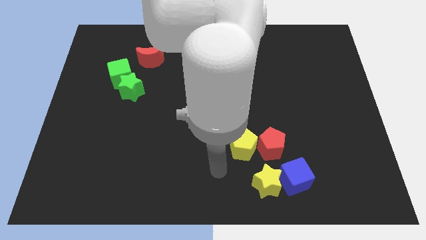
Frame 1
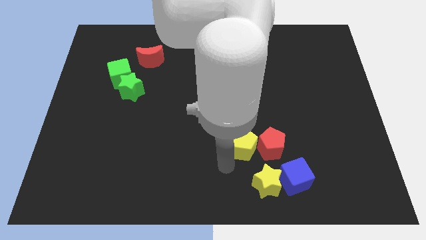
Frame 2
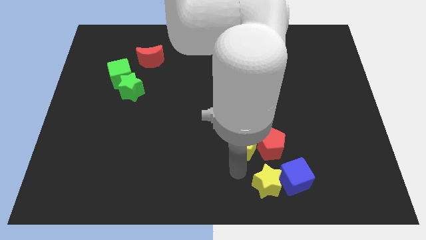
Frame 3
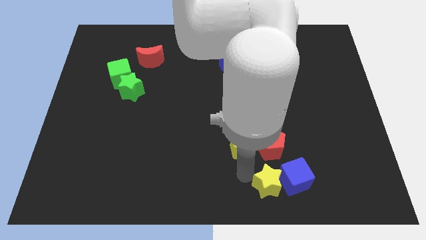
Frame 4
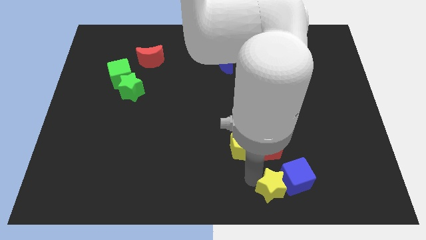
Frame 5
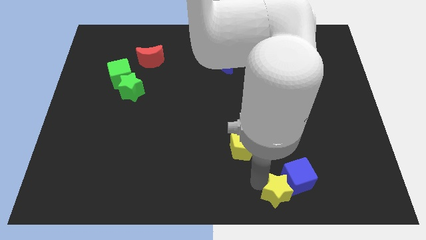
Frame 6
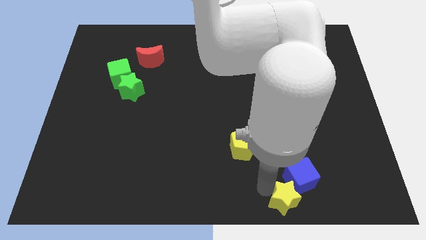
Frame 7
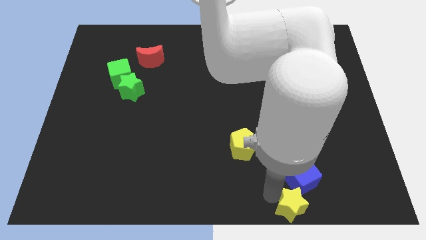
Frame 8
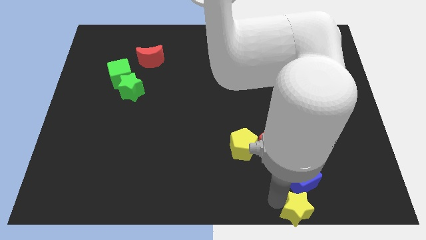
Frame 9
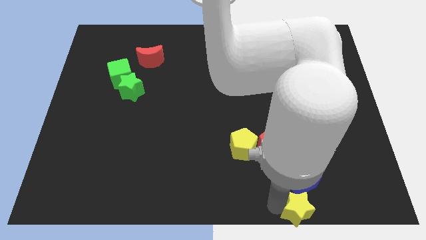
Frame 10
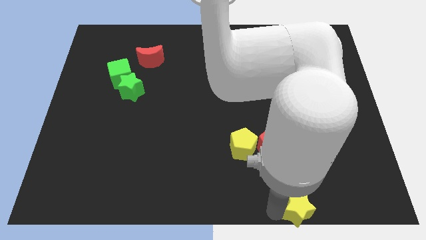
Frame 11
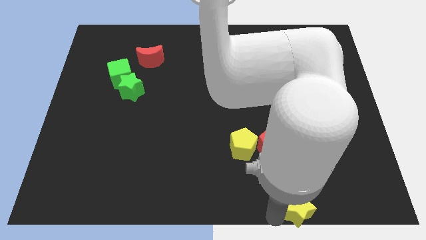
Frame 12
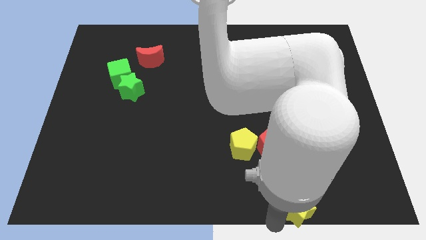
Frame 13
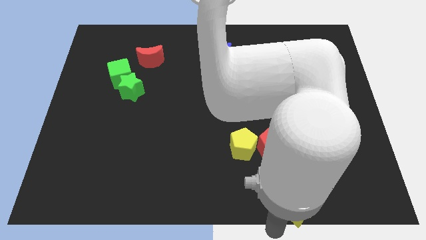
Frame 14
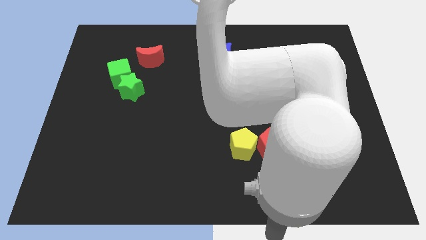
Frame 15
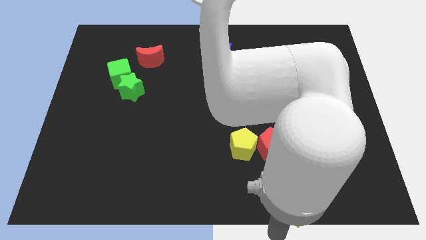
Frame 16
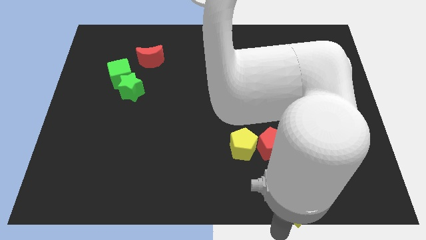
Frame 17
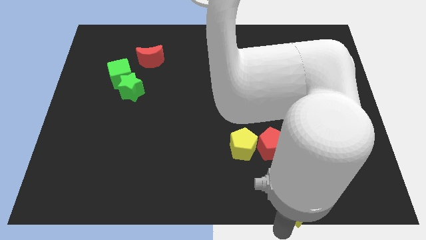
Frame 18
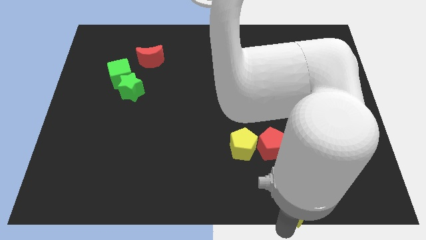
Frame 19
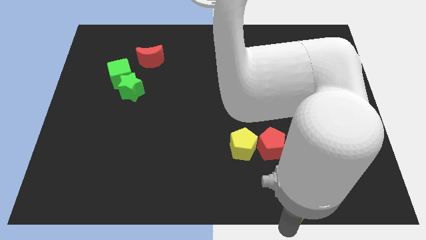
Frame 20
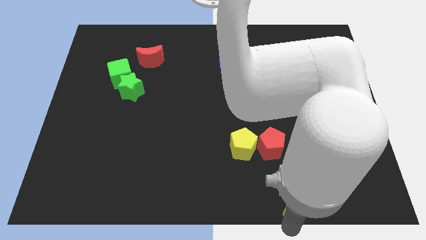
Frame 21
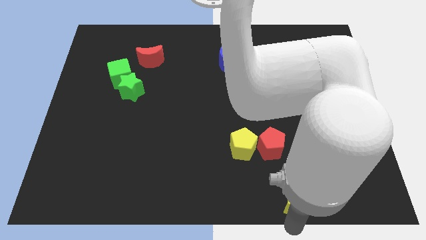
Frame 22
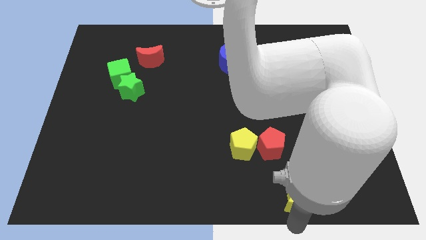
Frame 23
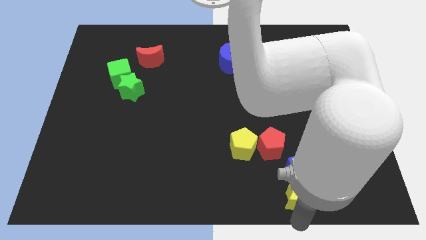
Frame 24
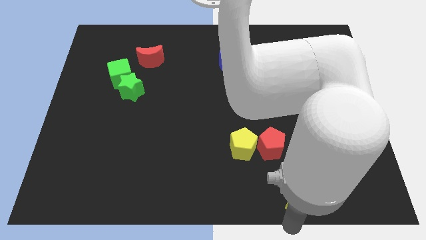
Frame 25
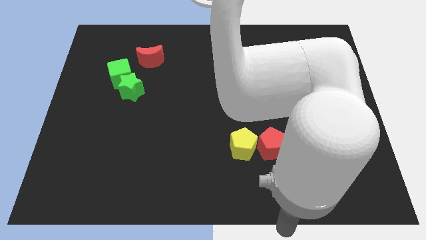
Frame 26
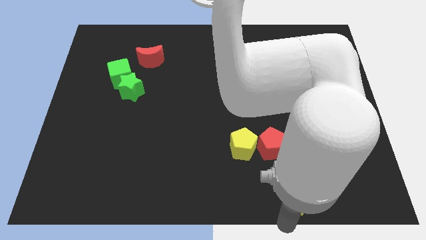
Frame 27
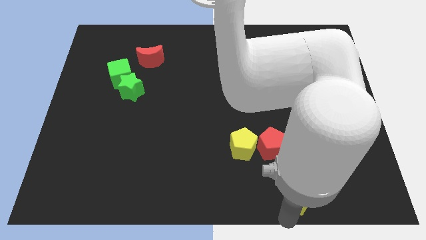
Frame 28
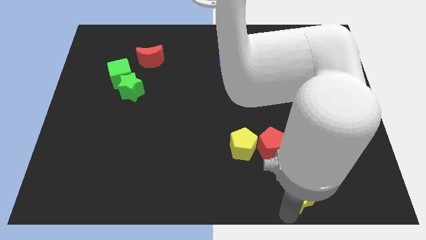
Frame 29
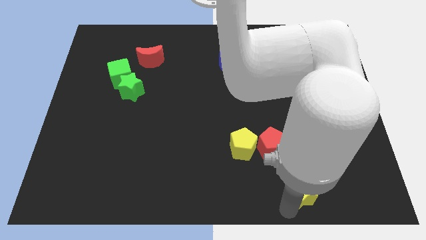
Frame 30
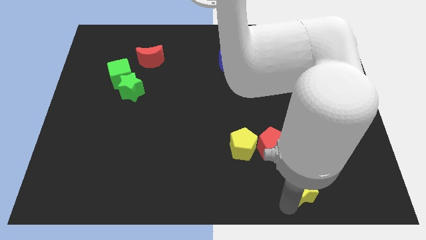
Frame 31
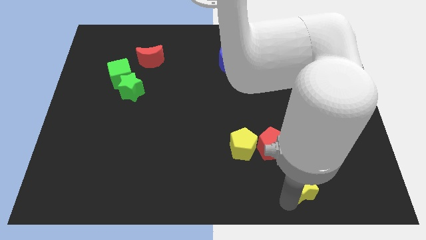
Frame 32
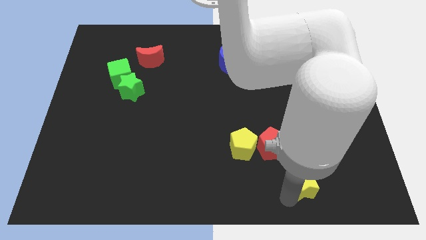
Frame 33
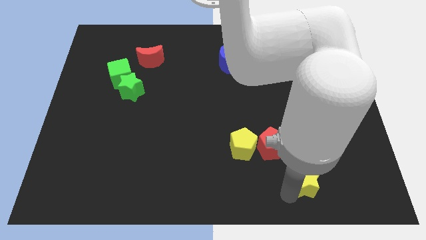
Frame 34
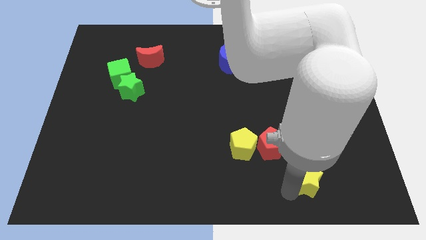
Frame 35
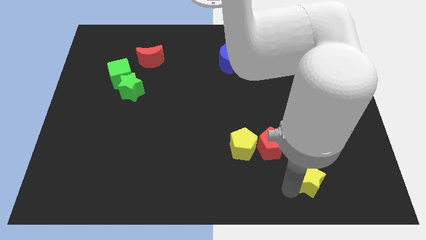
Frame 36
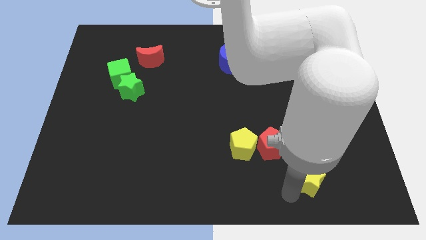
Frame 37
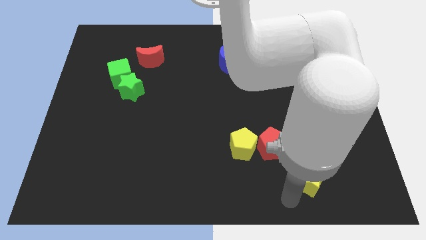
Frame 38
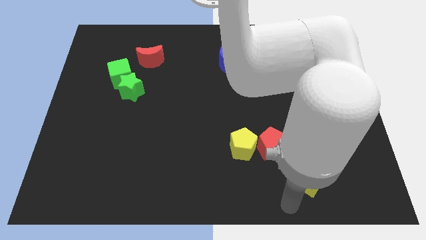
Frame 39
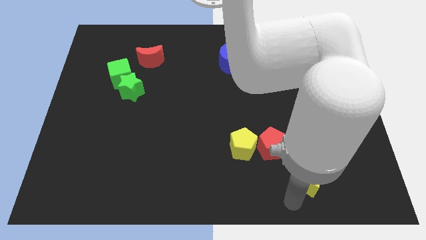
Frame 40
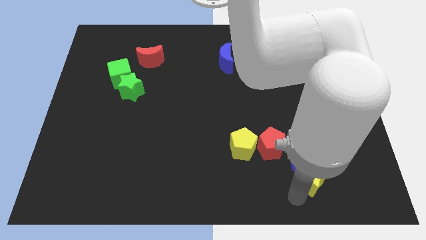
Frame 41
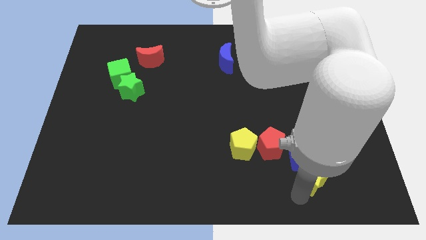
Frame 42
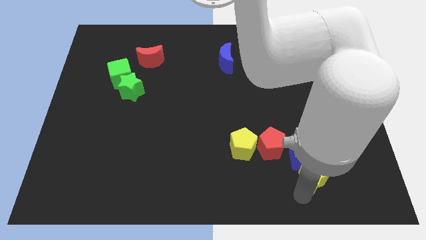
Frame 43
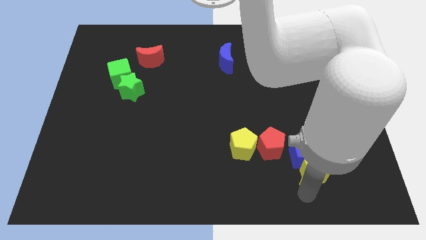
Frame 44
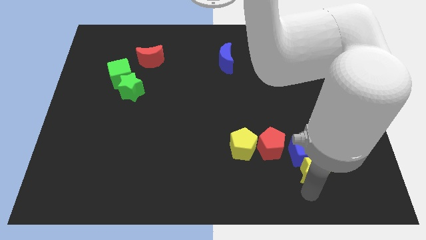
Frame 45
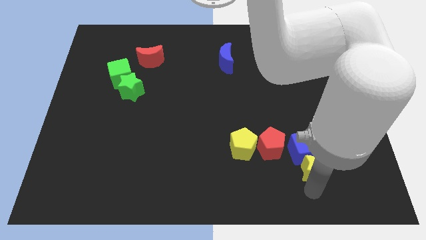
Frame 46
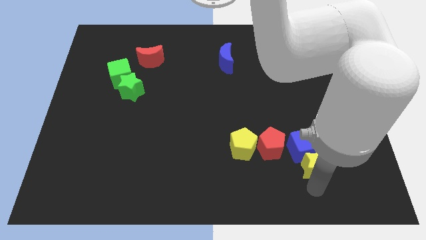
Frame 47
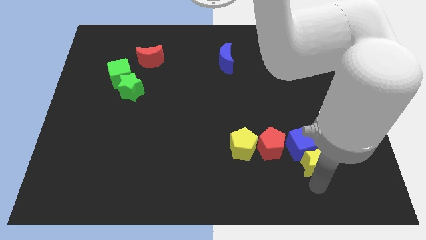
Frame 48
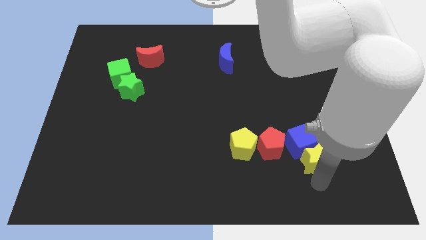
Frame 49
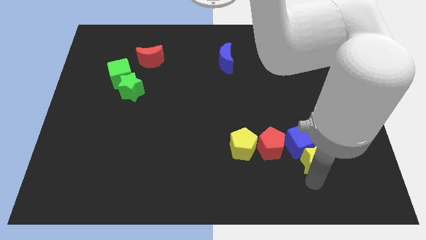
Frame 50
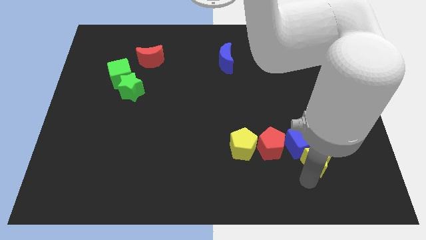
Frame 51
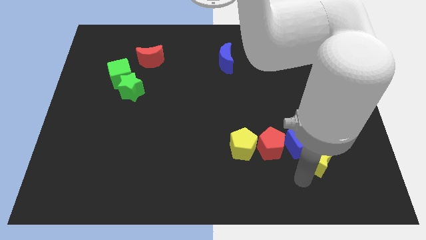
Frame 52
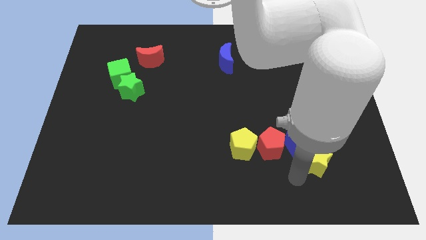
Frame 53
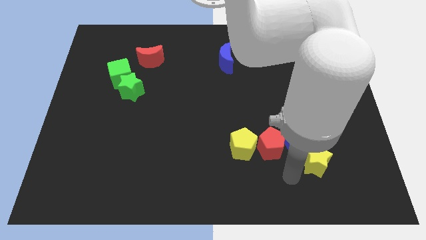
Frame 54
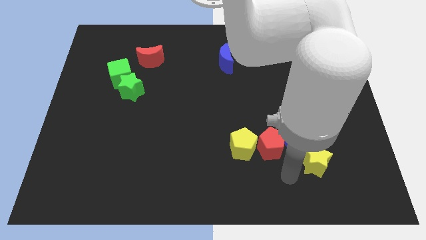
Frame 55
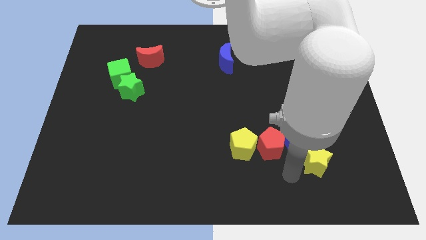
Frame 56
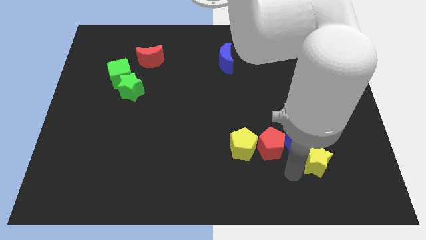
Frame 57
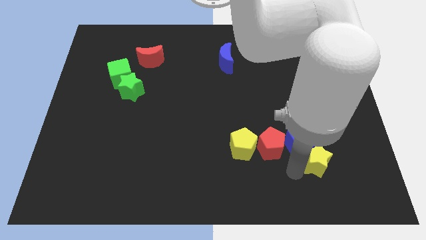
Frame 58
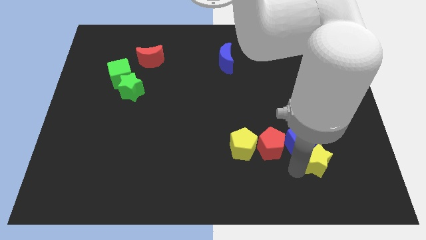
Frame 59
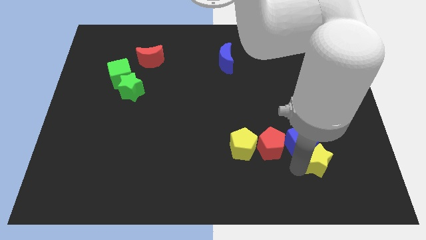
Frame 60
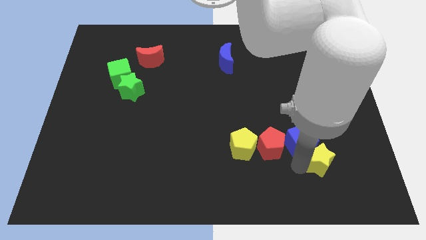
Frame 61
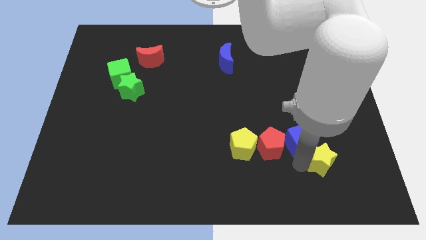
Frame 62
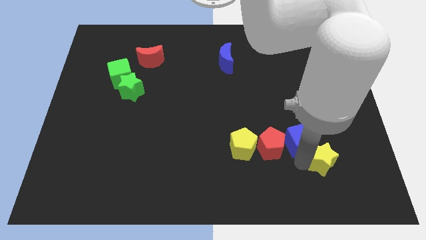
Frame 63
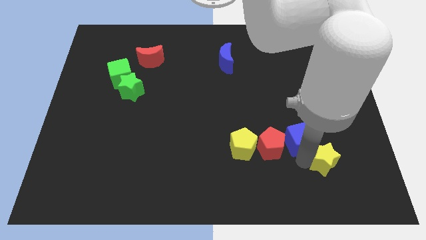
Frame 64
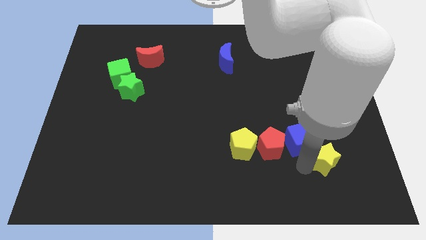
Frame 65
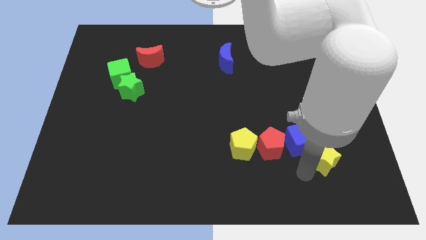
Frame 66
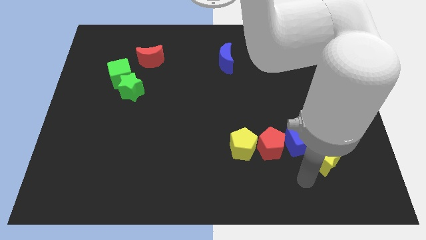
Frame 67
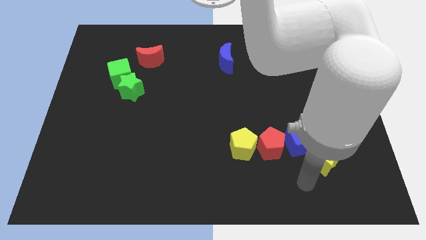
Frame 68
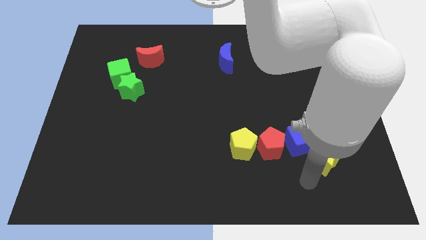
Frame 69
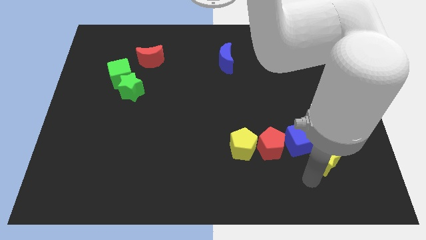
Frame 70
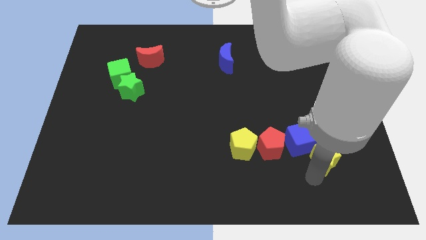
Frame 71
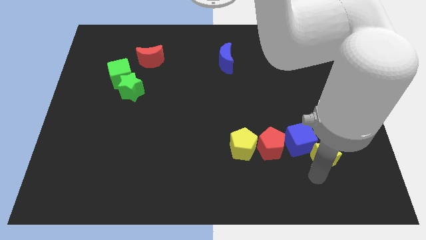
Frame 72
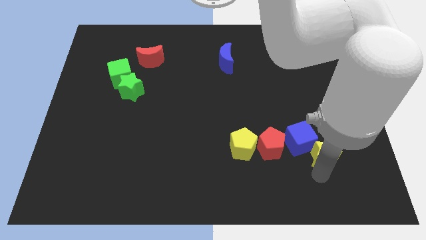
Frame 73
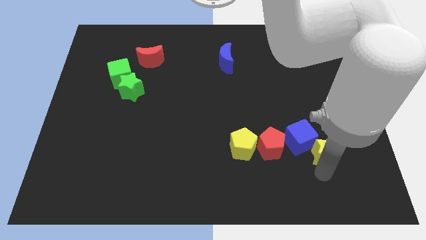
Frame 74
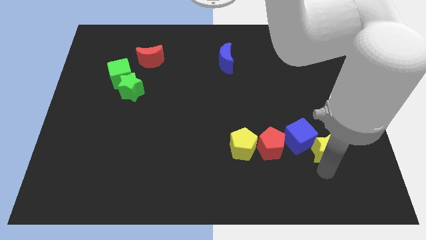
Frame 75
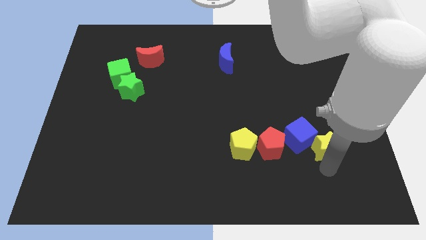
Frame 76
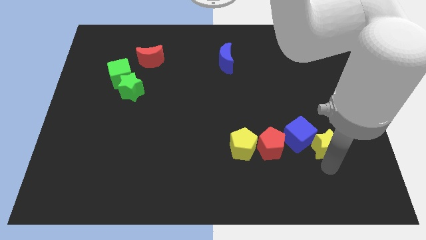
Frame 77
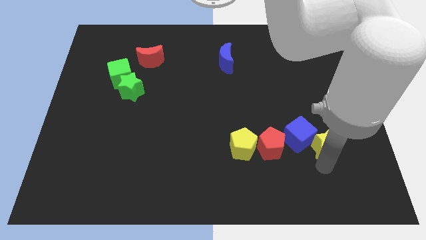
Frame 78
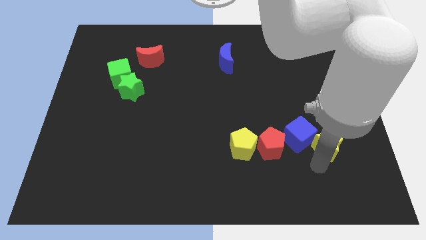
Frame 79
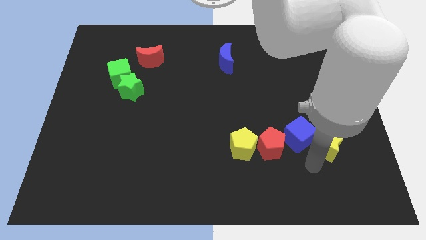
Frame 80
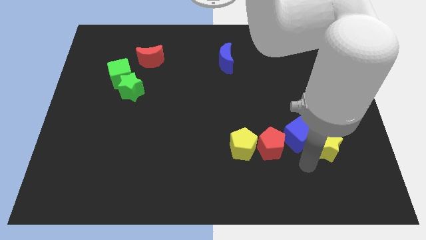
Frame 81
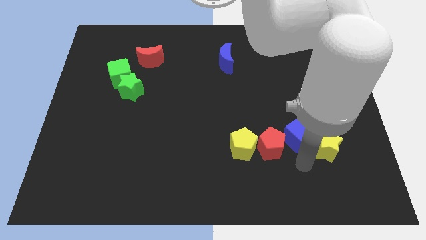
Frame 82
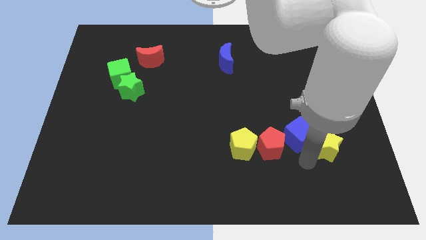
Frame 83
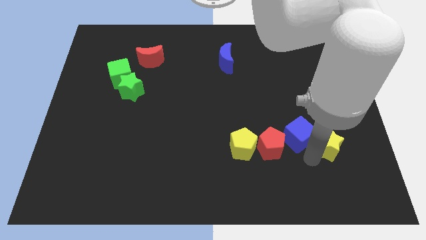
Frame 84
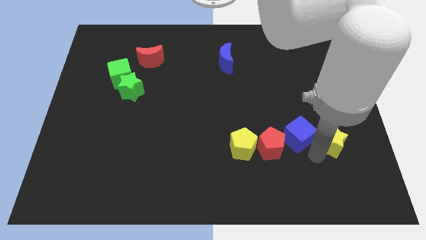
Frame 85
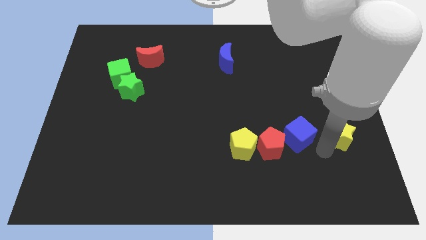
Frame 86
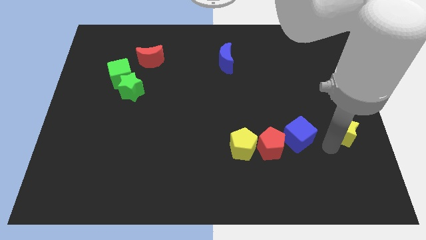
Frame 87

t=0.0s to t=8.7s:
push the yellow star to the right side of the board
